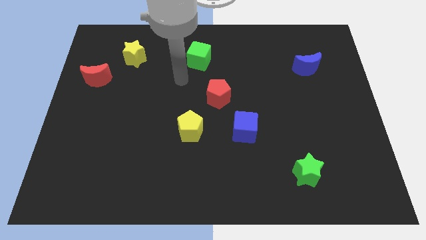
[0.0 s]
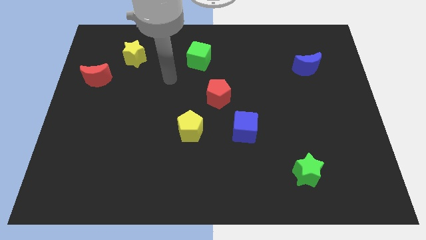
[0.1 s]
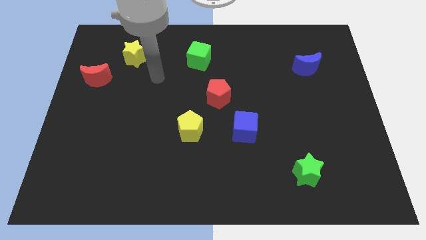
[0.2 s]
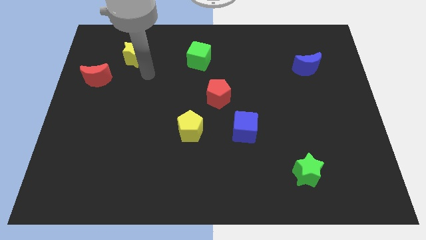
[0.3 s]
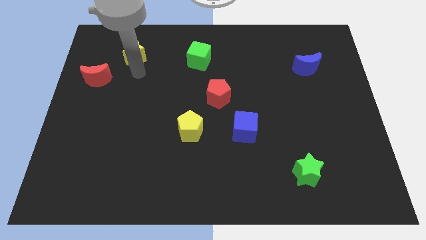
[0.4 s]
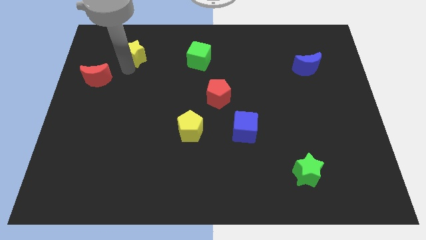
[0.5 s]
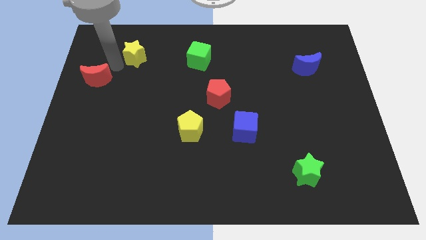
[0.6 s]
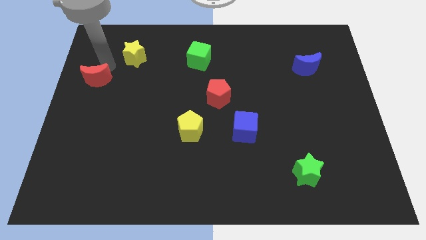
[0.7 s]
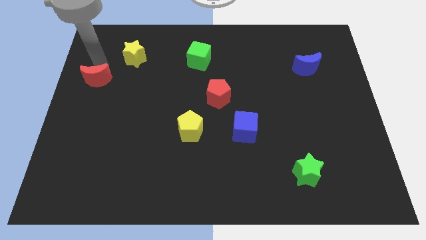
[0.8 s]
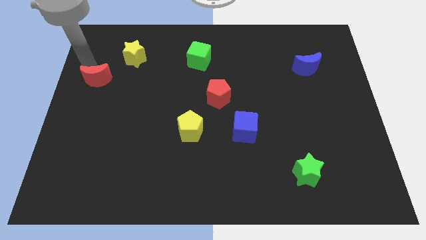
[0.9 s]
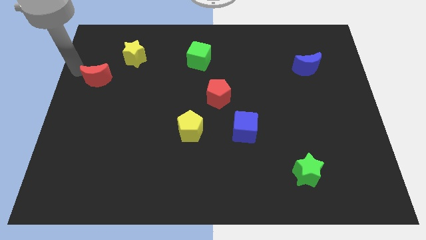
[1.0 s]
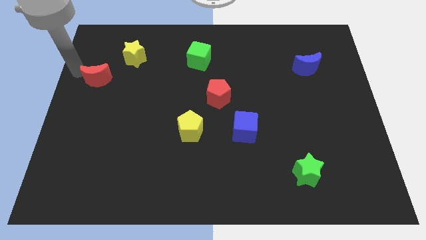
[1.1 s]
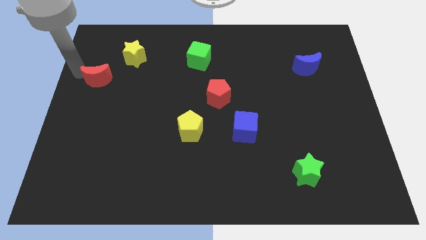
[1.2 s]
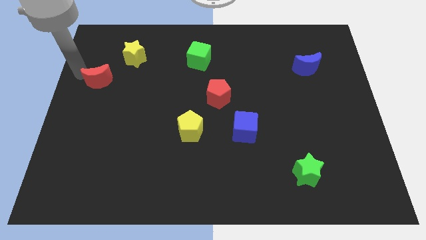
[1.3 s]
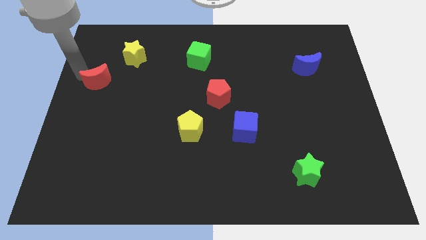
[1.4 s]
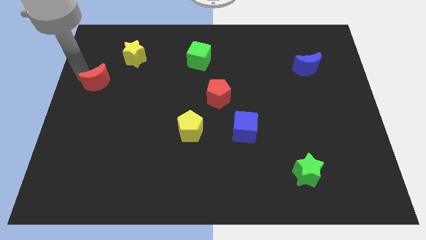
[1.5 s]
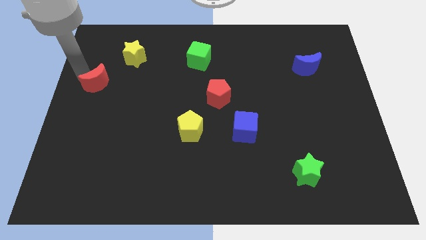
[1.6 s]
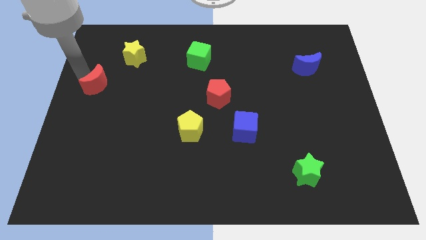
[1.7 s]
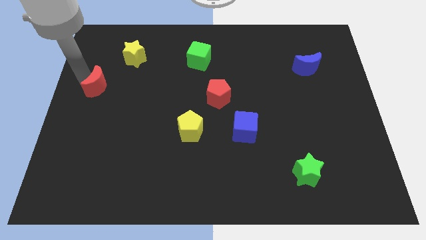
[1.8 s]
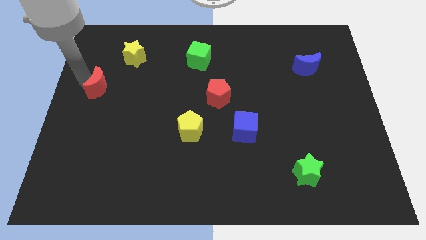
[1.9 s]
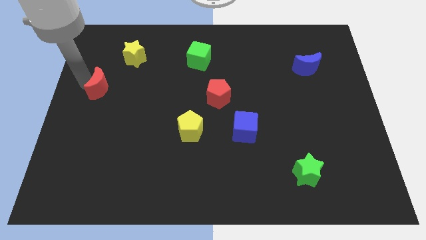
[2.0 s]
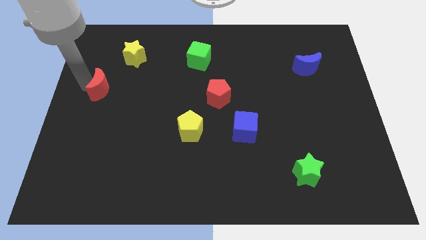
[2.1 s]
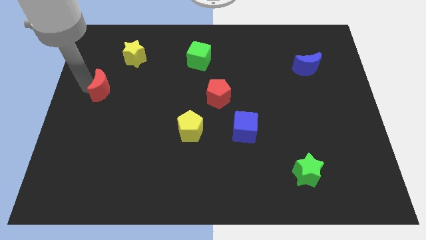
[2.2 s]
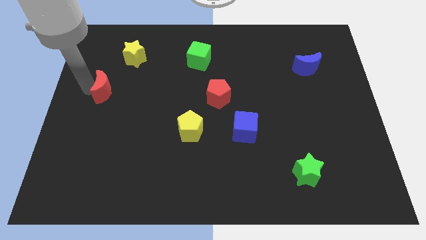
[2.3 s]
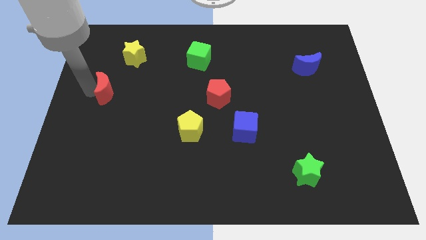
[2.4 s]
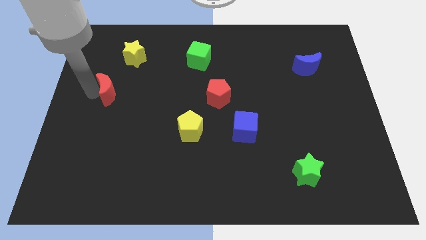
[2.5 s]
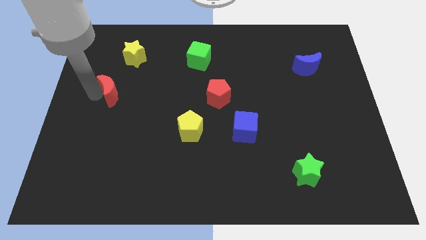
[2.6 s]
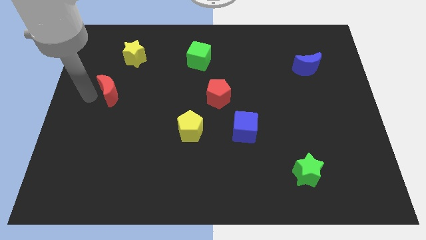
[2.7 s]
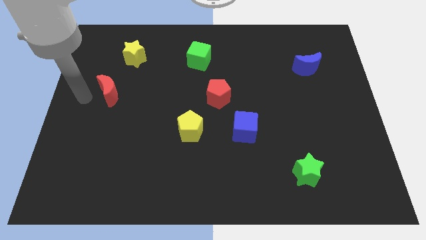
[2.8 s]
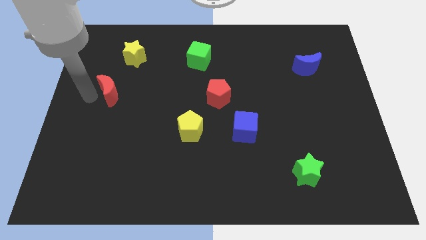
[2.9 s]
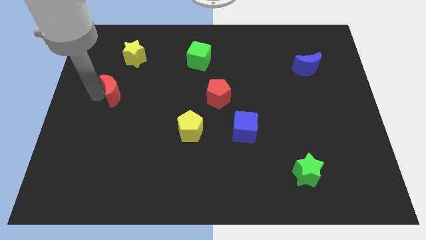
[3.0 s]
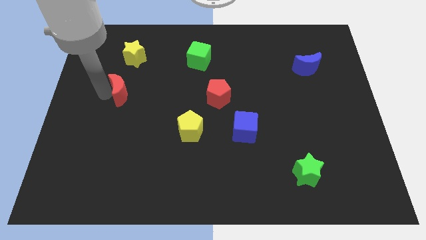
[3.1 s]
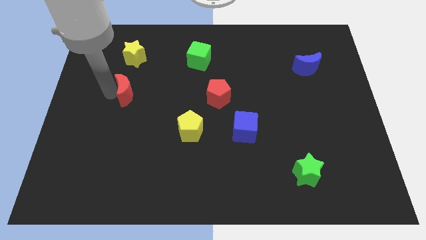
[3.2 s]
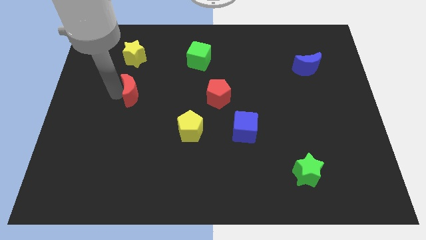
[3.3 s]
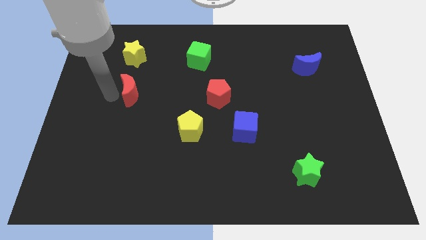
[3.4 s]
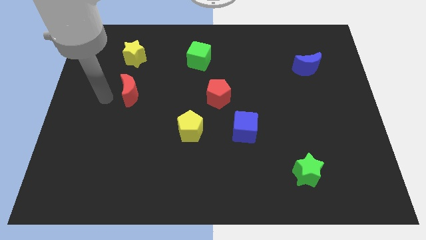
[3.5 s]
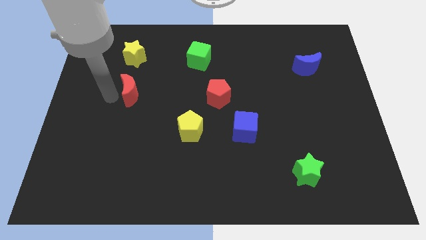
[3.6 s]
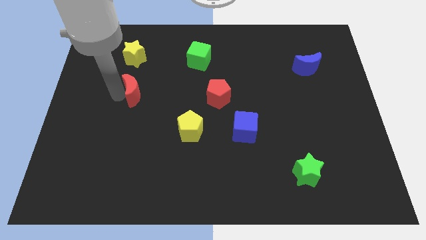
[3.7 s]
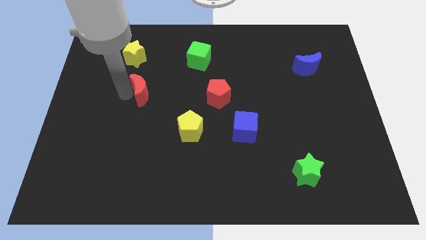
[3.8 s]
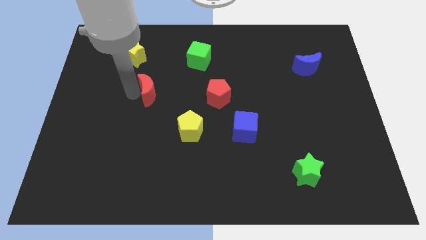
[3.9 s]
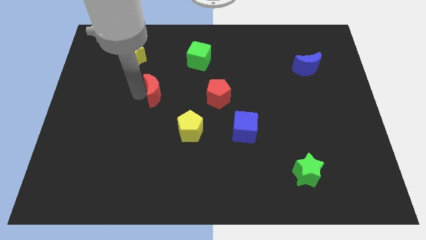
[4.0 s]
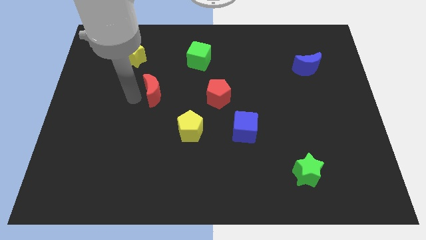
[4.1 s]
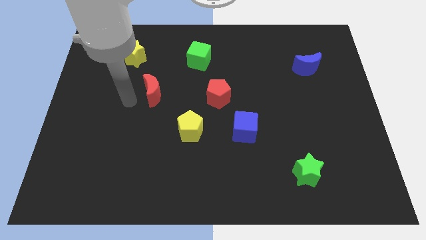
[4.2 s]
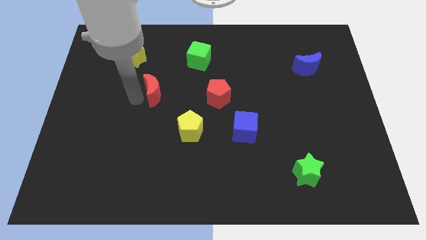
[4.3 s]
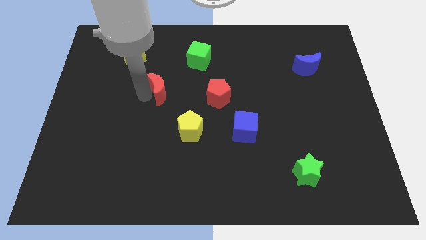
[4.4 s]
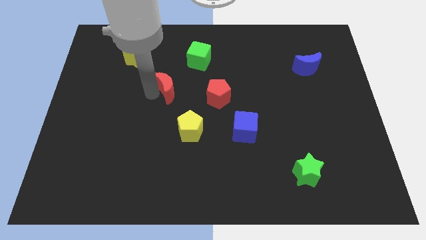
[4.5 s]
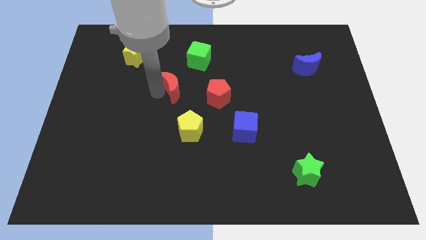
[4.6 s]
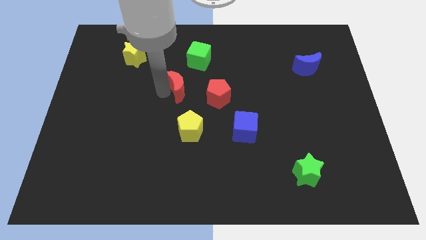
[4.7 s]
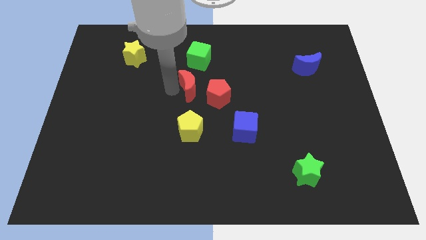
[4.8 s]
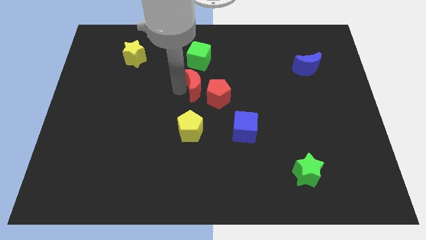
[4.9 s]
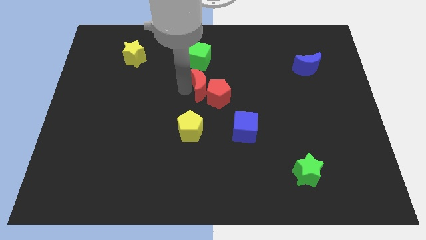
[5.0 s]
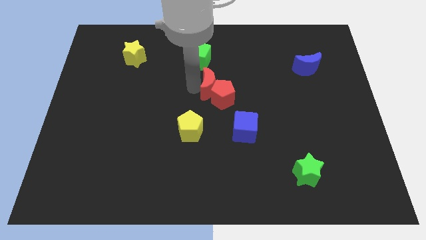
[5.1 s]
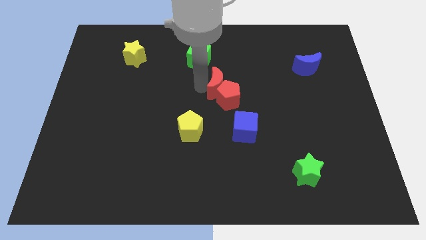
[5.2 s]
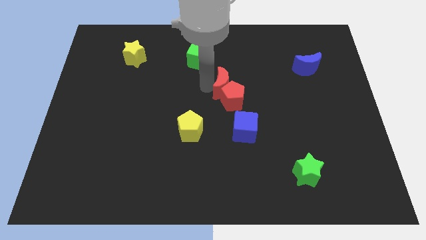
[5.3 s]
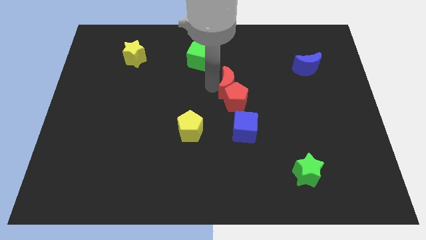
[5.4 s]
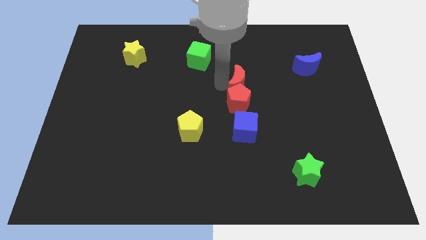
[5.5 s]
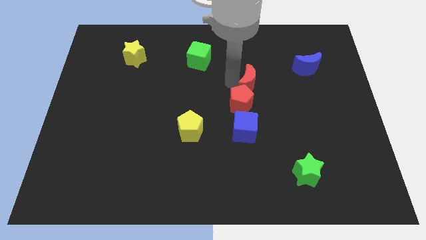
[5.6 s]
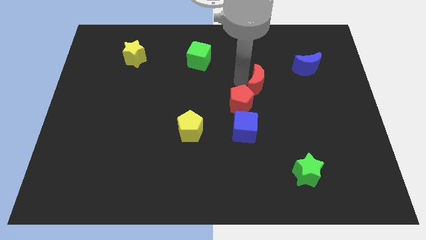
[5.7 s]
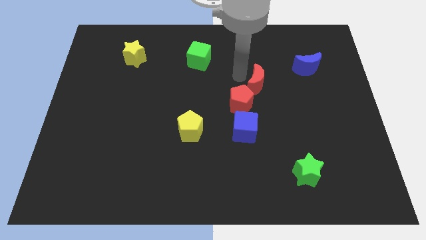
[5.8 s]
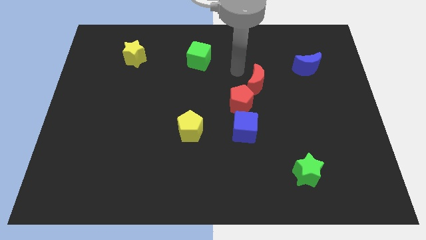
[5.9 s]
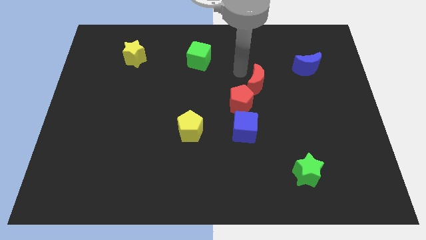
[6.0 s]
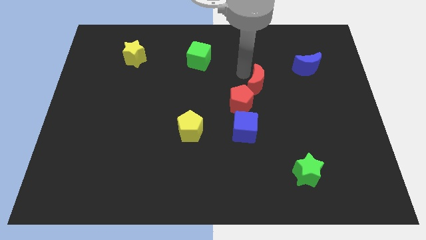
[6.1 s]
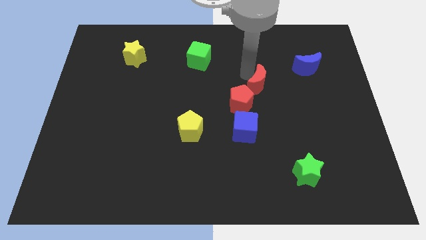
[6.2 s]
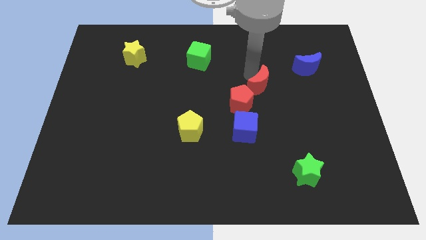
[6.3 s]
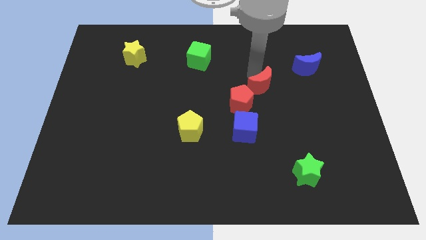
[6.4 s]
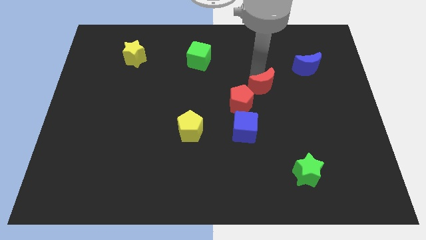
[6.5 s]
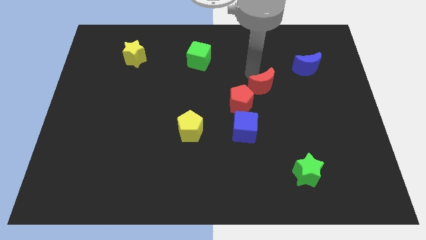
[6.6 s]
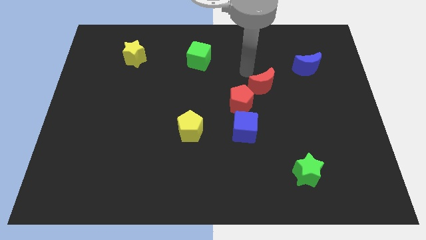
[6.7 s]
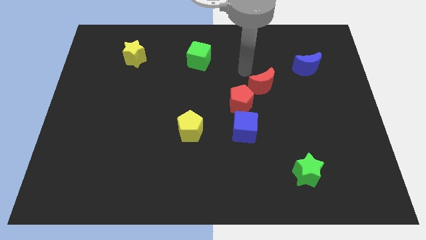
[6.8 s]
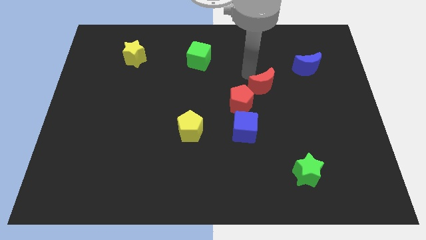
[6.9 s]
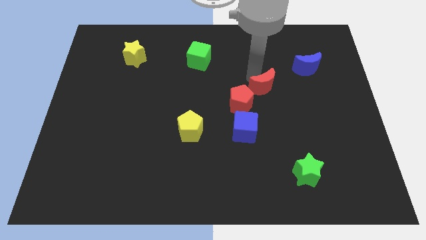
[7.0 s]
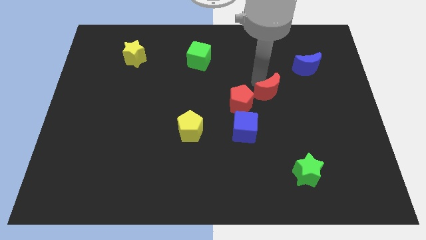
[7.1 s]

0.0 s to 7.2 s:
put the red moon to the right side of the red pentagon
